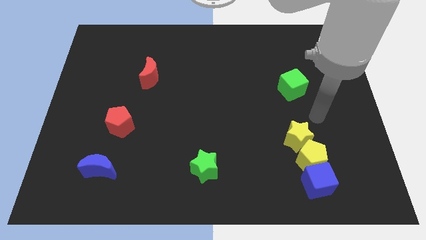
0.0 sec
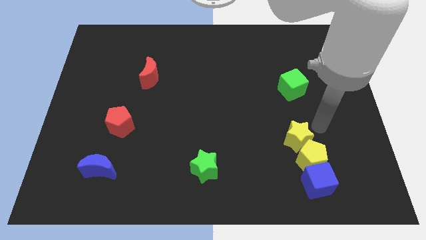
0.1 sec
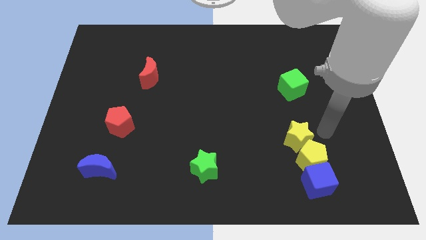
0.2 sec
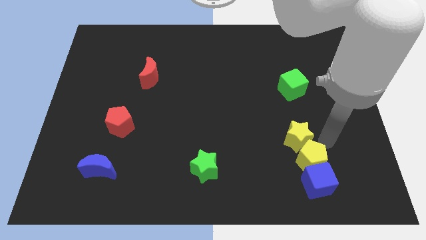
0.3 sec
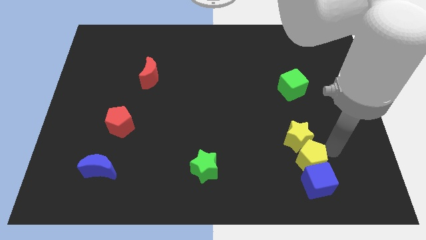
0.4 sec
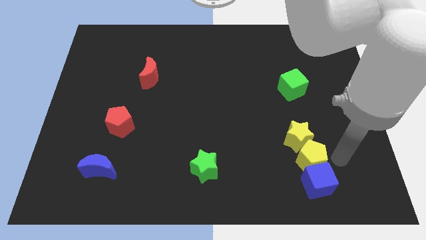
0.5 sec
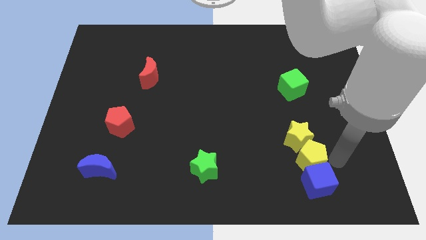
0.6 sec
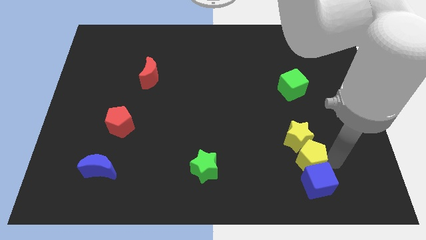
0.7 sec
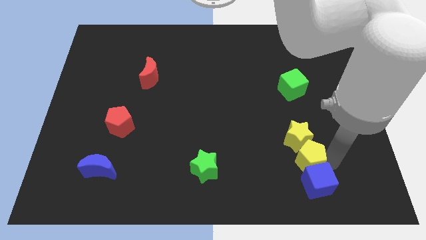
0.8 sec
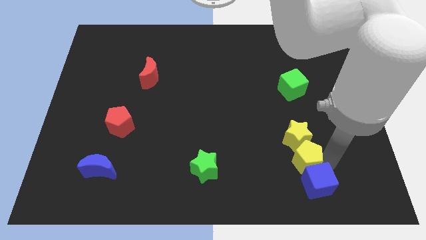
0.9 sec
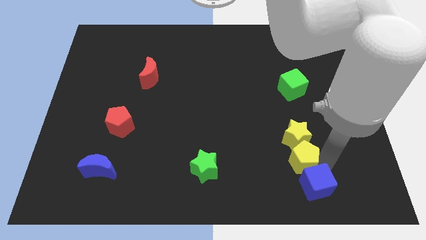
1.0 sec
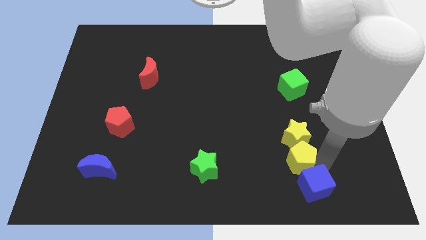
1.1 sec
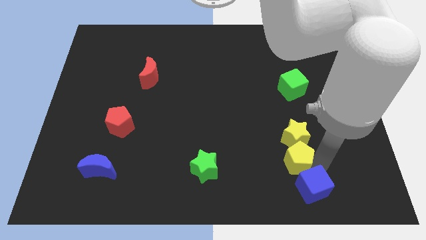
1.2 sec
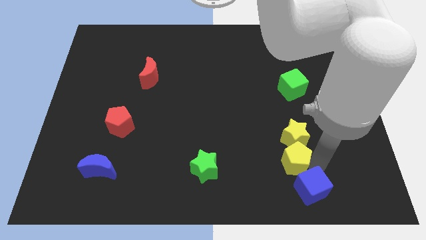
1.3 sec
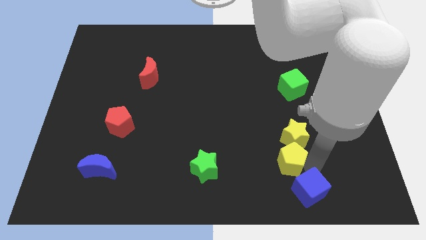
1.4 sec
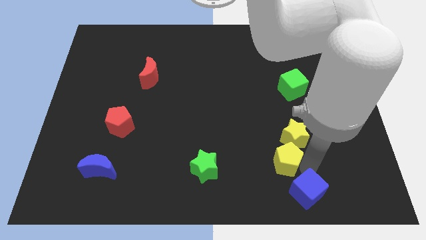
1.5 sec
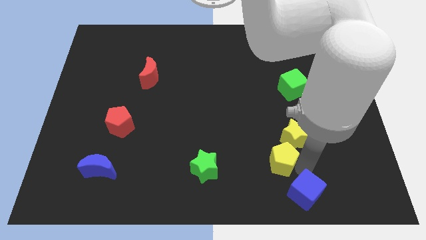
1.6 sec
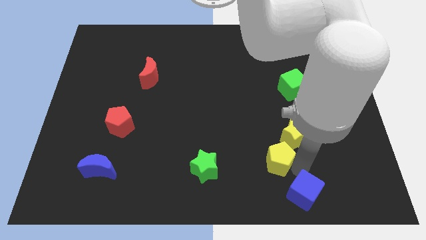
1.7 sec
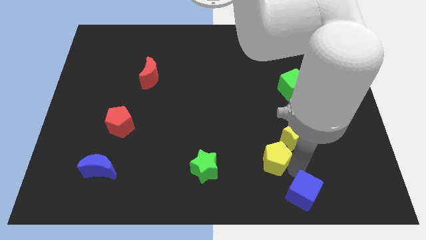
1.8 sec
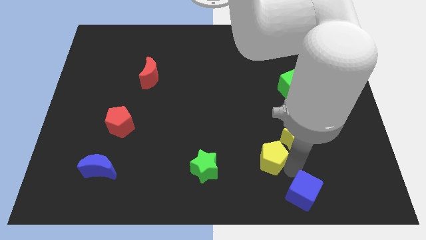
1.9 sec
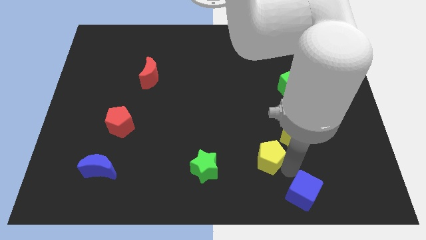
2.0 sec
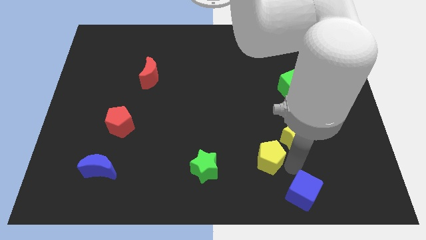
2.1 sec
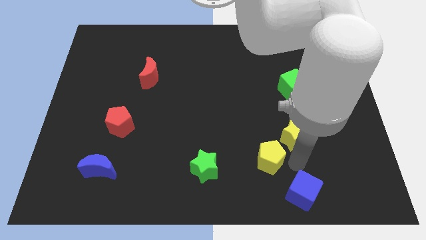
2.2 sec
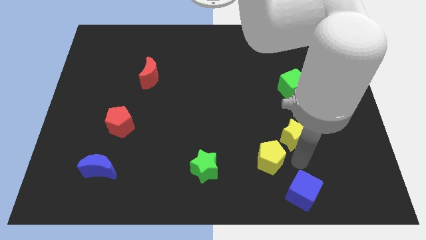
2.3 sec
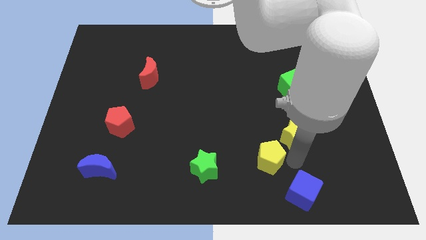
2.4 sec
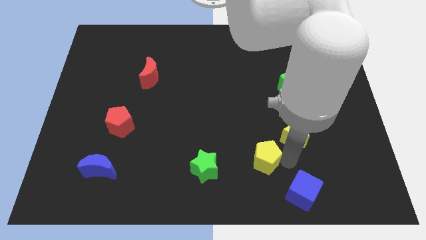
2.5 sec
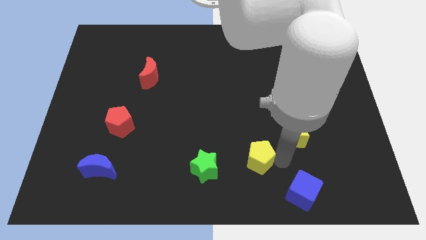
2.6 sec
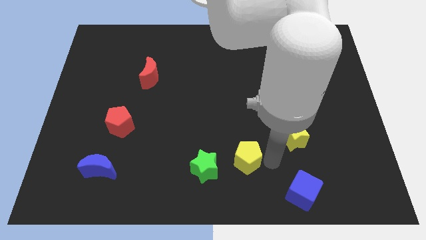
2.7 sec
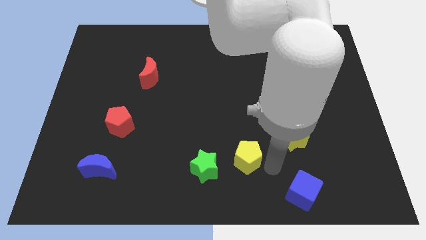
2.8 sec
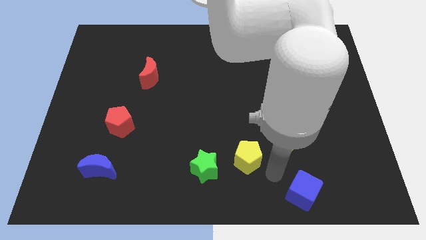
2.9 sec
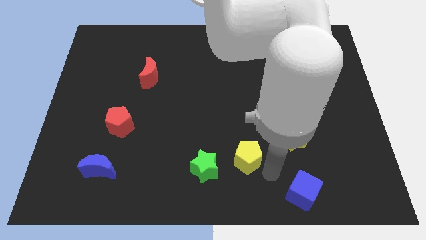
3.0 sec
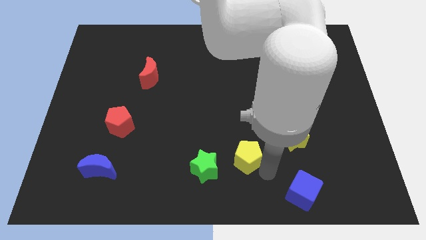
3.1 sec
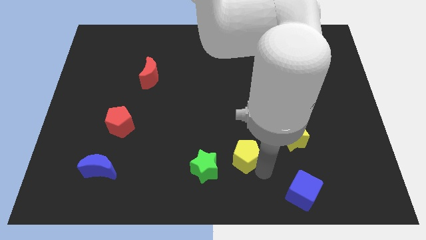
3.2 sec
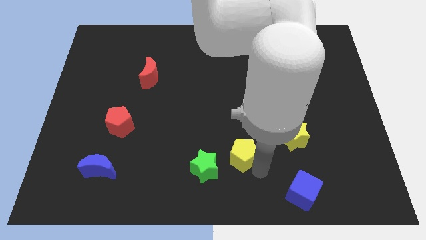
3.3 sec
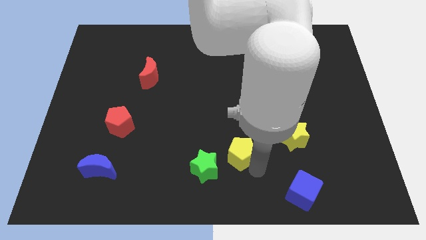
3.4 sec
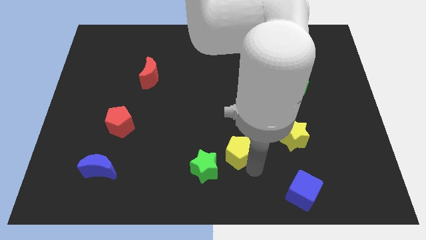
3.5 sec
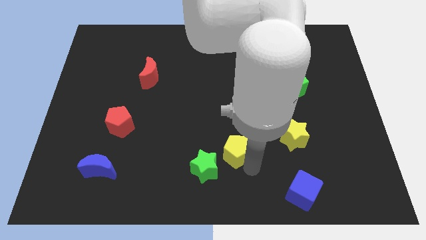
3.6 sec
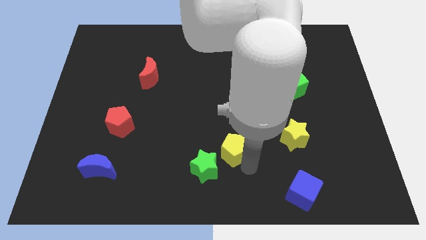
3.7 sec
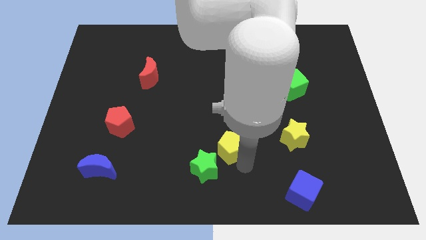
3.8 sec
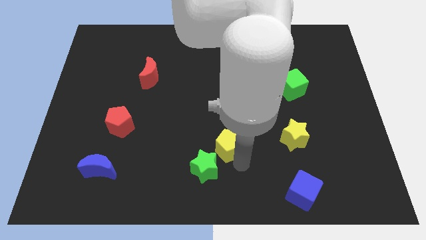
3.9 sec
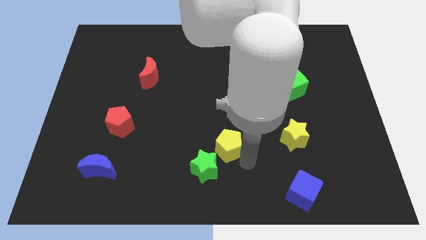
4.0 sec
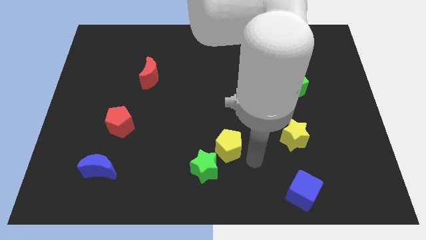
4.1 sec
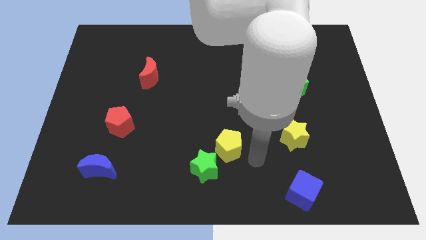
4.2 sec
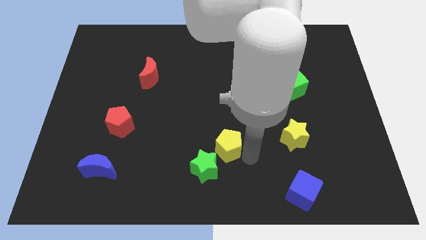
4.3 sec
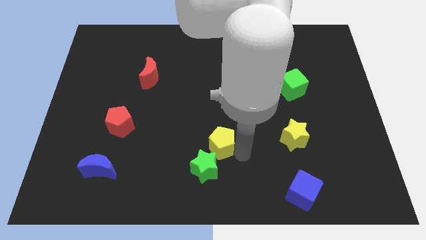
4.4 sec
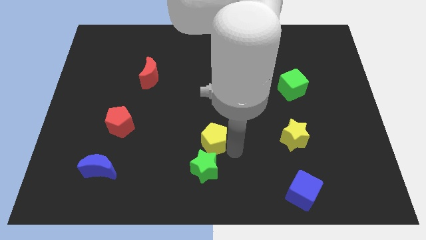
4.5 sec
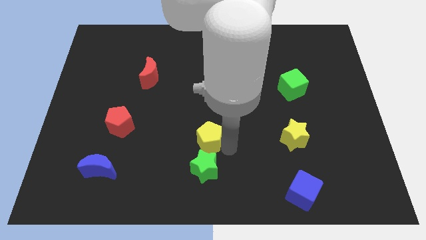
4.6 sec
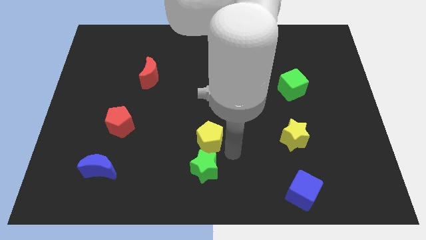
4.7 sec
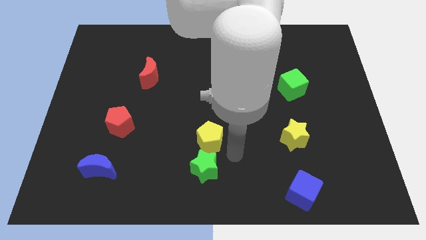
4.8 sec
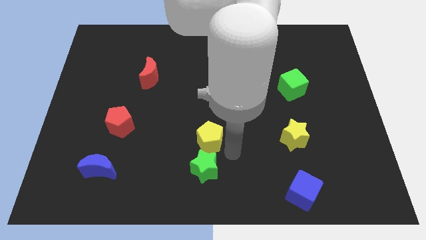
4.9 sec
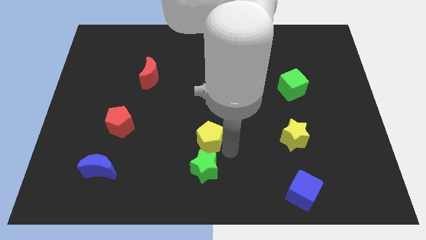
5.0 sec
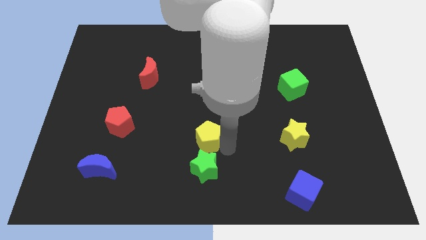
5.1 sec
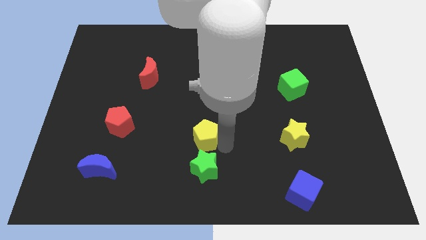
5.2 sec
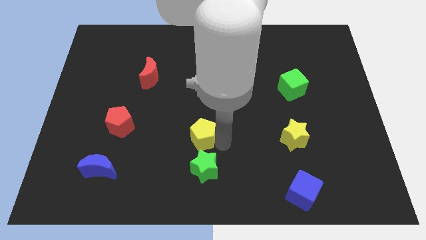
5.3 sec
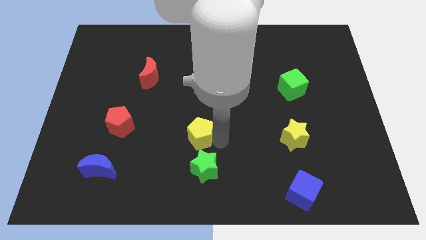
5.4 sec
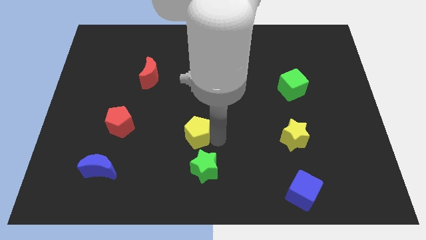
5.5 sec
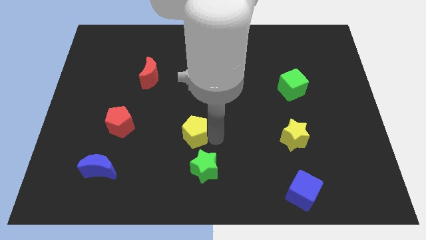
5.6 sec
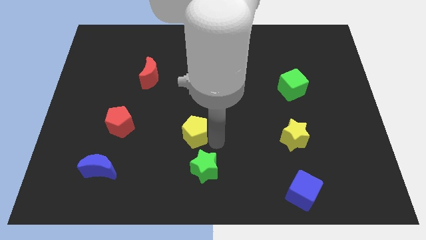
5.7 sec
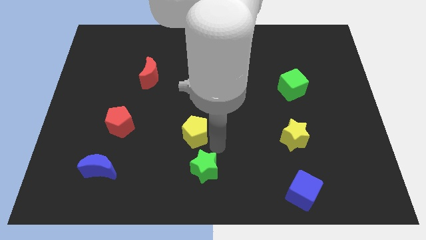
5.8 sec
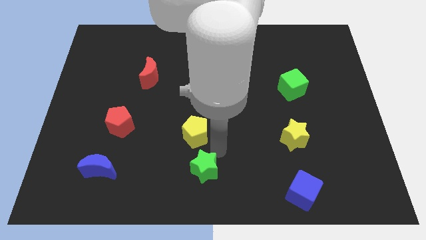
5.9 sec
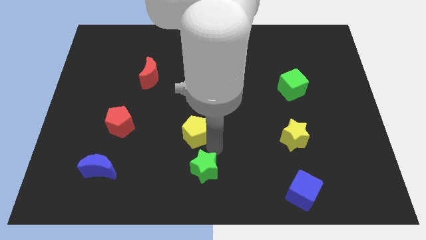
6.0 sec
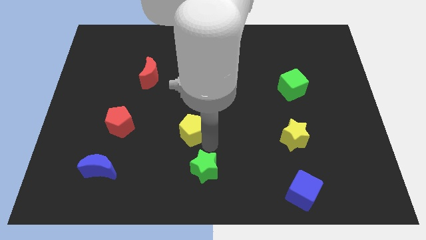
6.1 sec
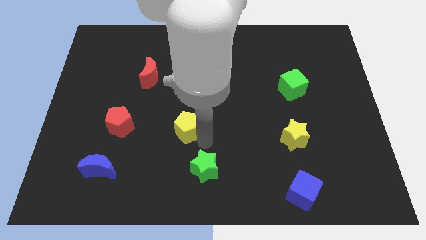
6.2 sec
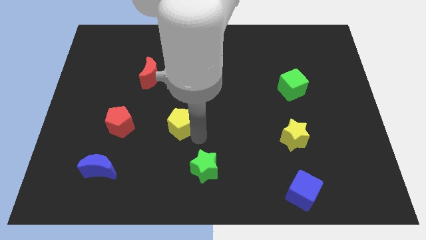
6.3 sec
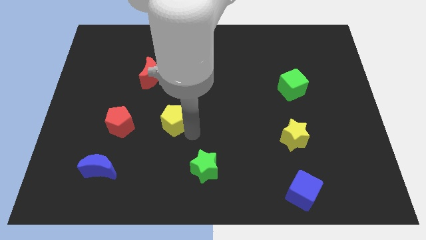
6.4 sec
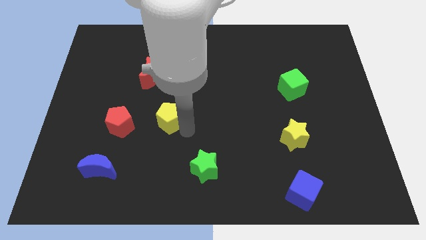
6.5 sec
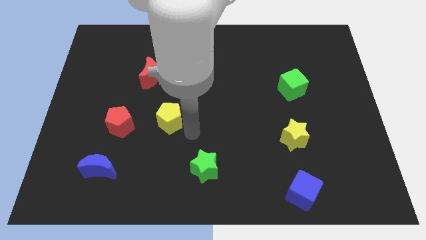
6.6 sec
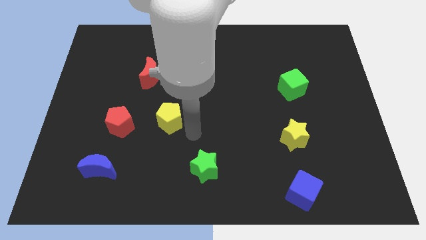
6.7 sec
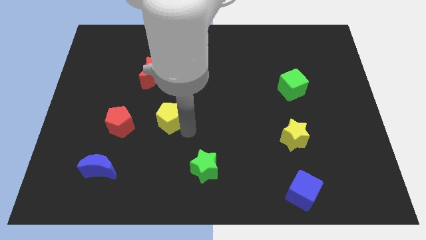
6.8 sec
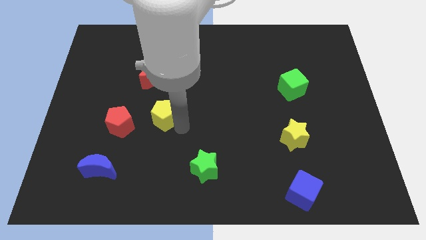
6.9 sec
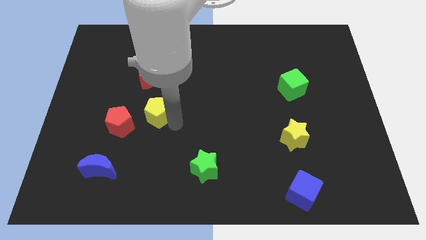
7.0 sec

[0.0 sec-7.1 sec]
put the yellow pentagon diagonally up and to the right of the red pentagon

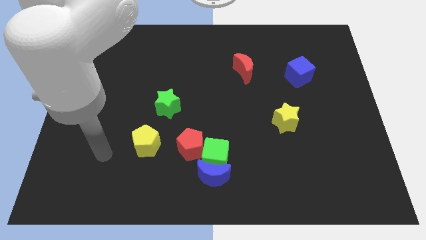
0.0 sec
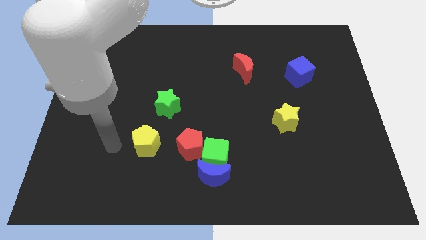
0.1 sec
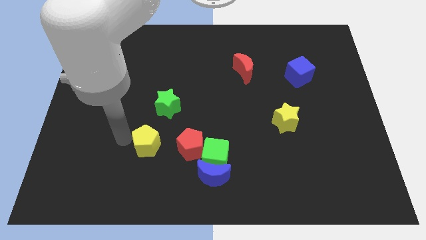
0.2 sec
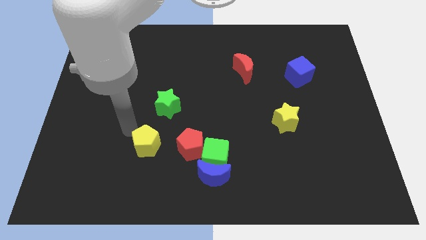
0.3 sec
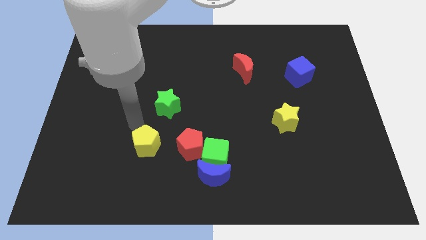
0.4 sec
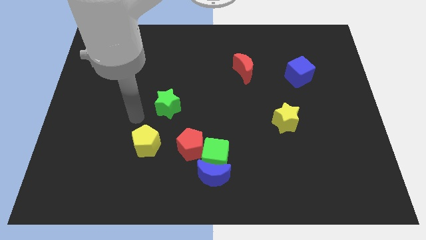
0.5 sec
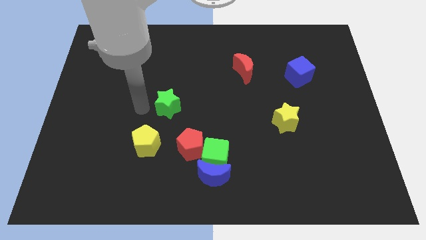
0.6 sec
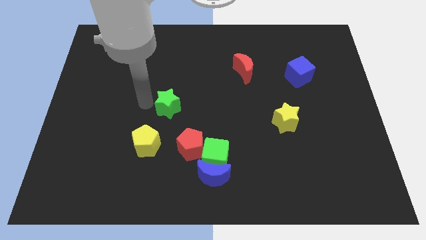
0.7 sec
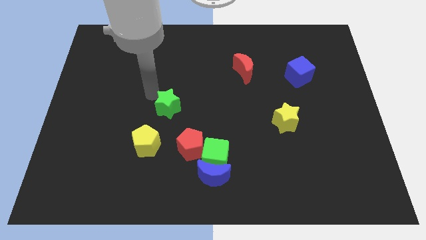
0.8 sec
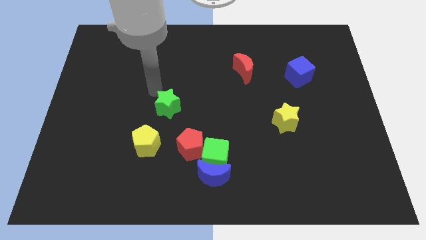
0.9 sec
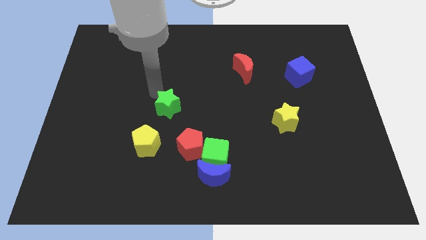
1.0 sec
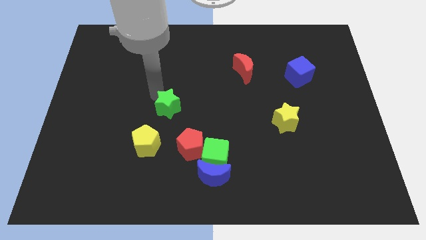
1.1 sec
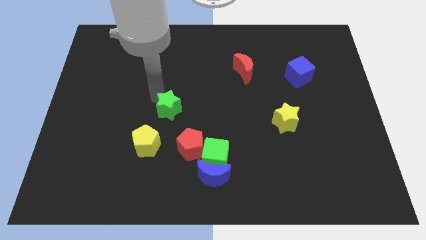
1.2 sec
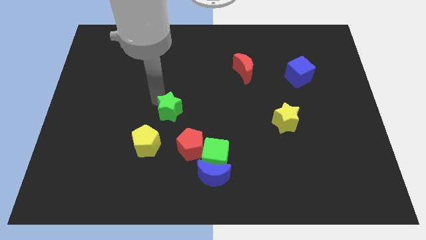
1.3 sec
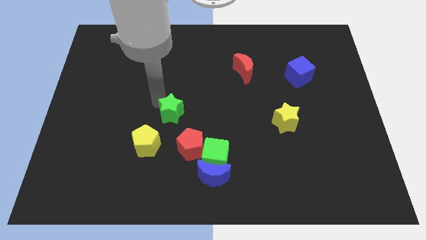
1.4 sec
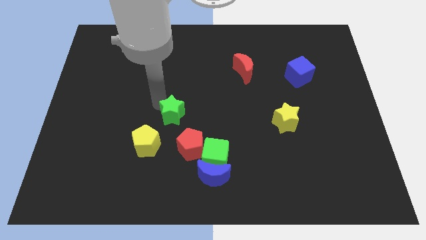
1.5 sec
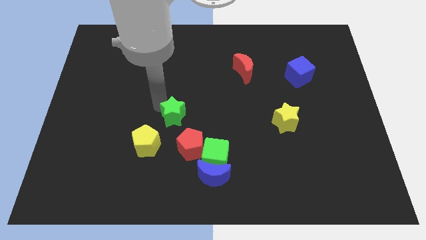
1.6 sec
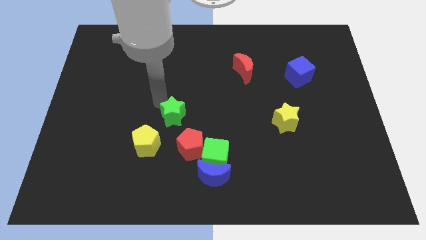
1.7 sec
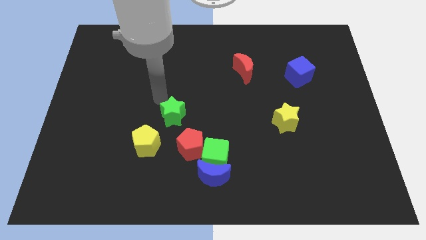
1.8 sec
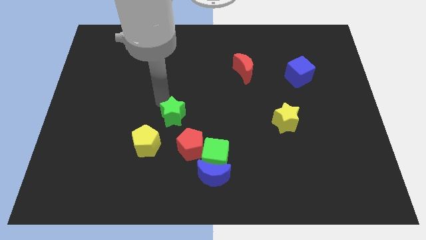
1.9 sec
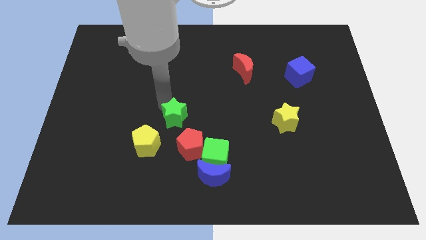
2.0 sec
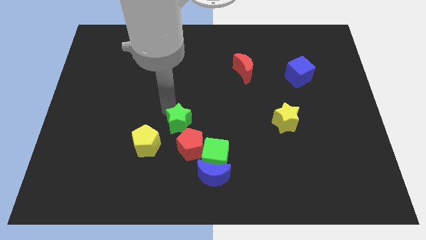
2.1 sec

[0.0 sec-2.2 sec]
slide the green star diagonally up and to the left of the green cube
